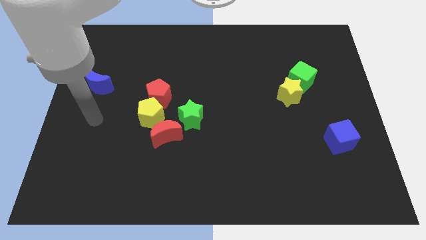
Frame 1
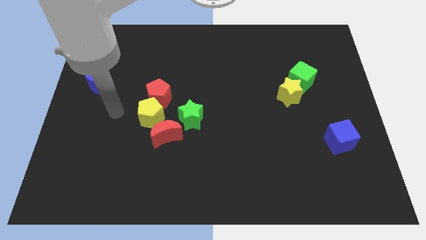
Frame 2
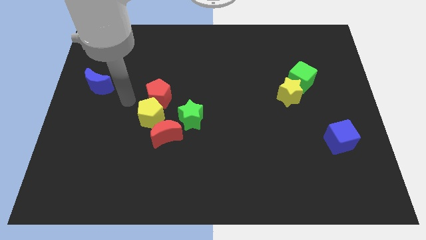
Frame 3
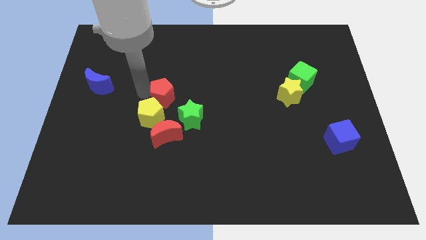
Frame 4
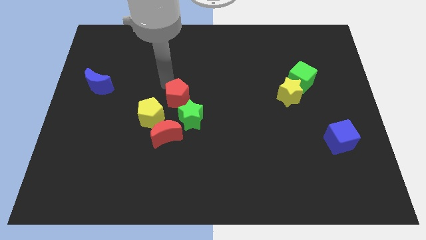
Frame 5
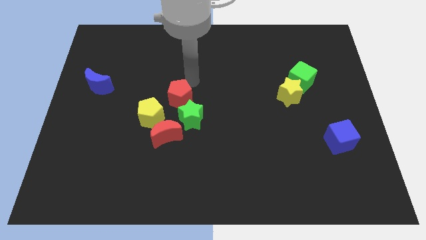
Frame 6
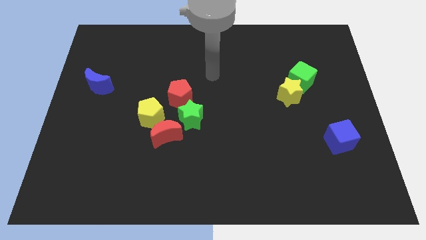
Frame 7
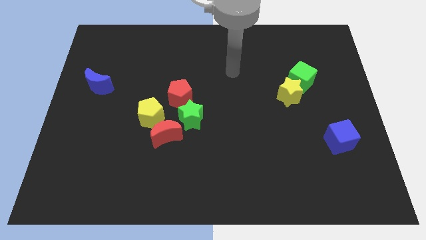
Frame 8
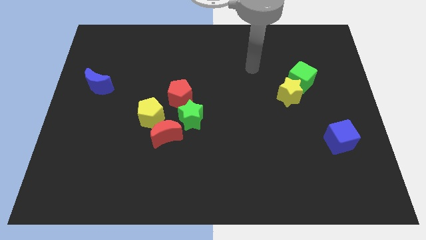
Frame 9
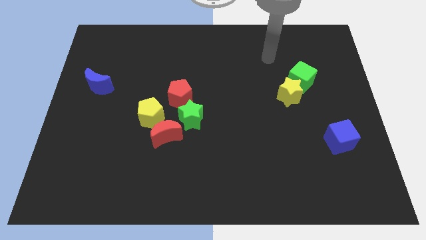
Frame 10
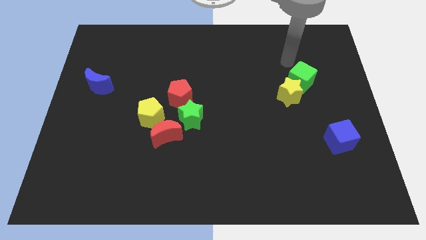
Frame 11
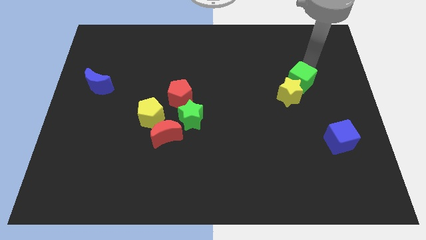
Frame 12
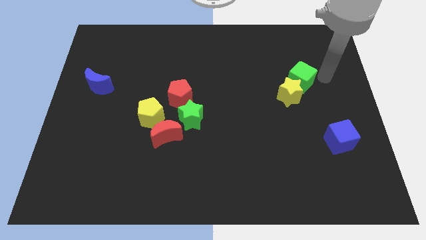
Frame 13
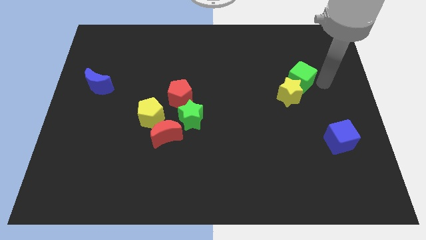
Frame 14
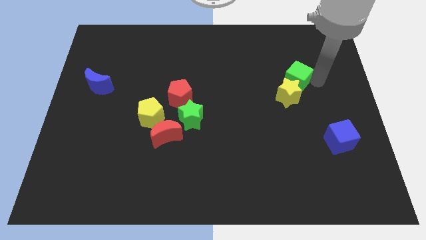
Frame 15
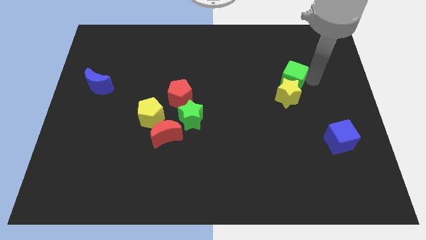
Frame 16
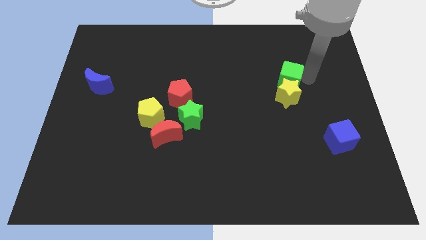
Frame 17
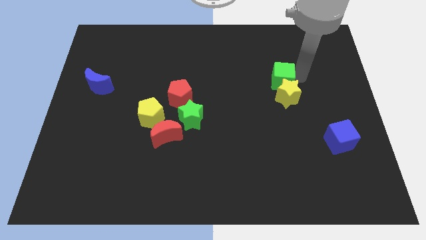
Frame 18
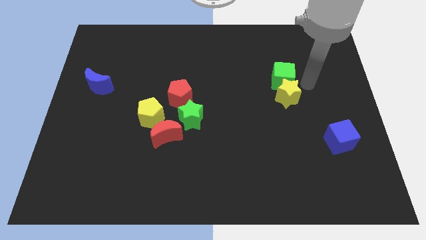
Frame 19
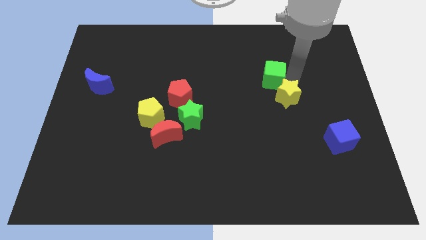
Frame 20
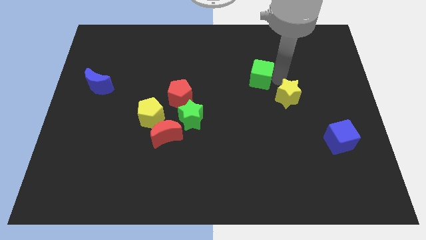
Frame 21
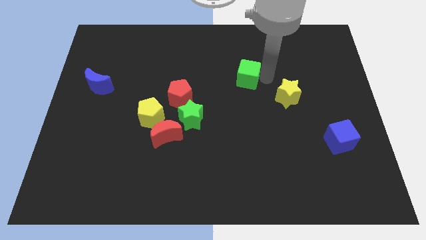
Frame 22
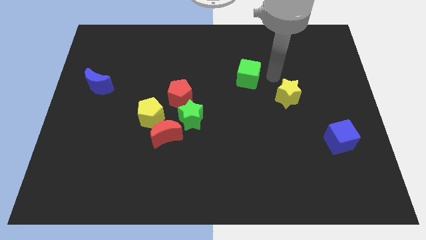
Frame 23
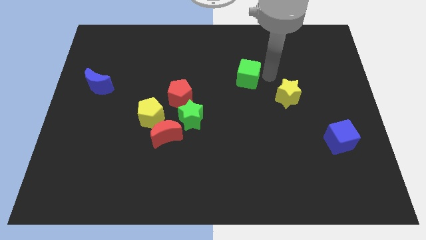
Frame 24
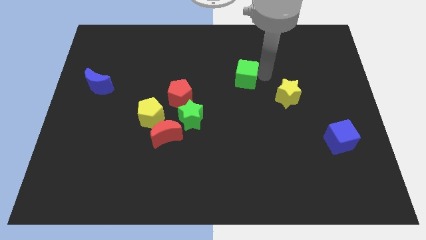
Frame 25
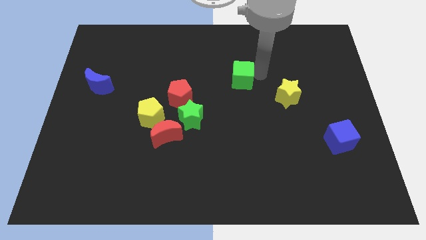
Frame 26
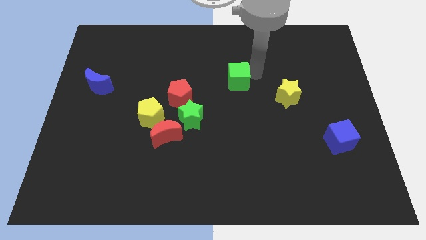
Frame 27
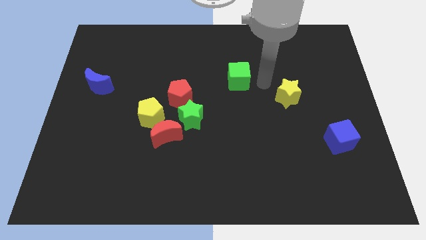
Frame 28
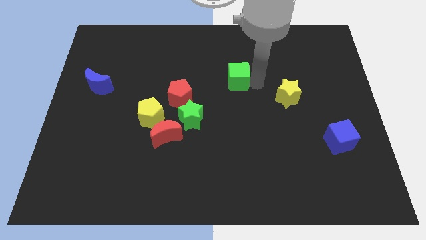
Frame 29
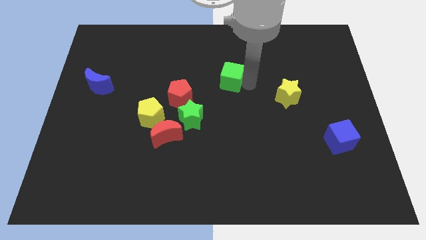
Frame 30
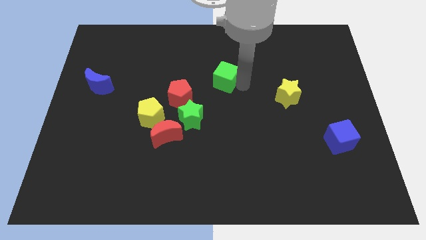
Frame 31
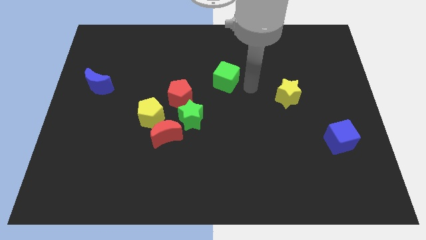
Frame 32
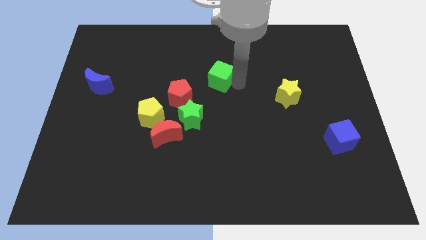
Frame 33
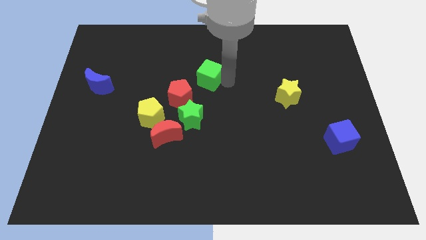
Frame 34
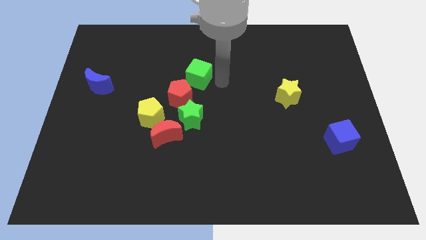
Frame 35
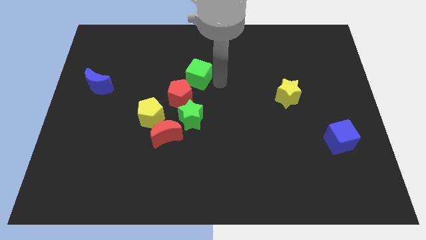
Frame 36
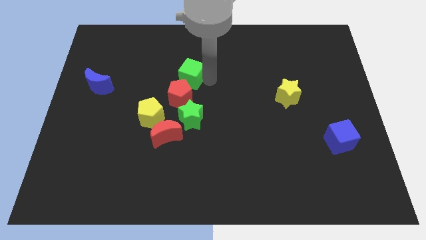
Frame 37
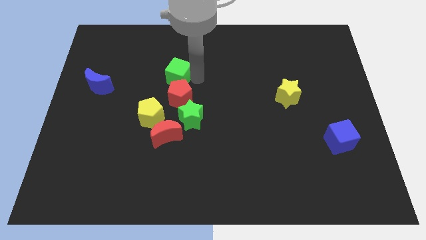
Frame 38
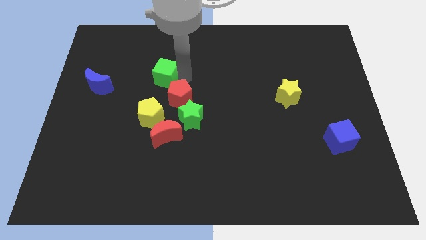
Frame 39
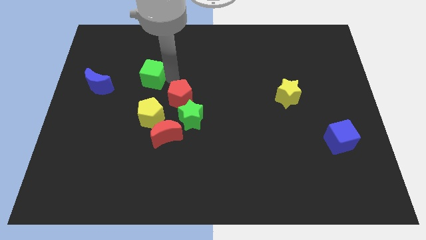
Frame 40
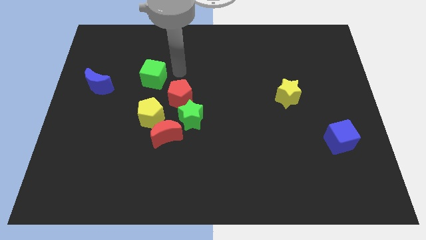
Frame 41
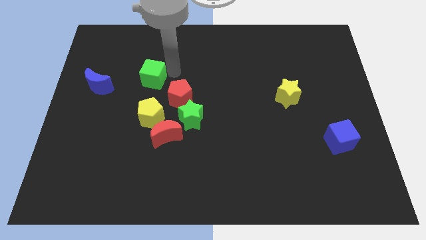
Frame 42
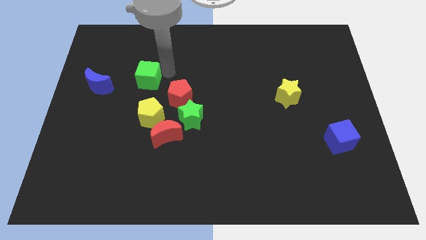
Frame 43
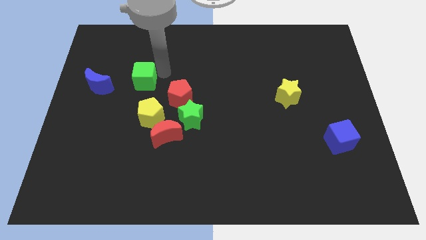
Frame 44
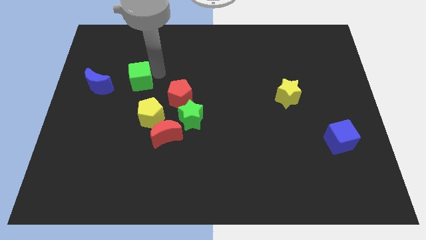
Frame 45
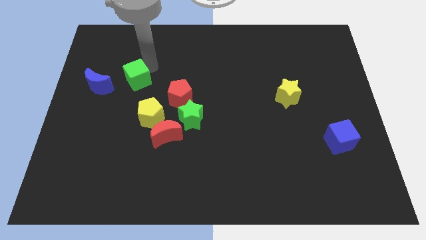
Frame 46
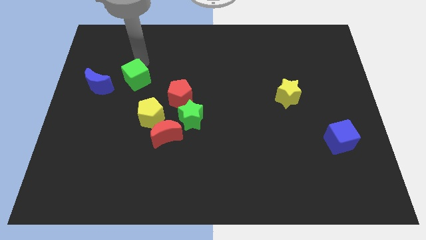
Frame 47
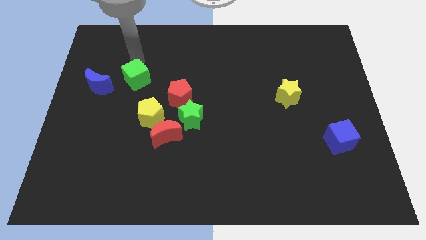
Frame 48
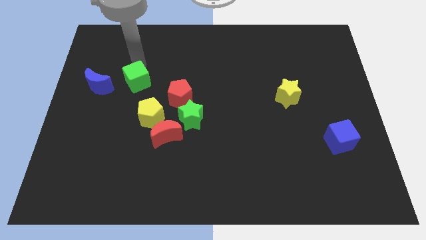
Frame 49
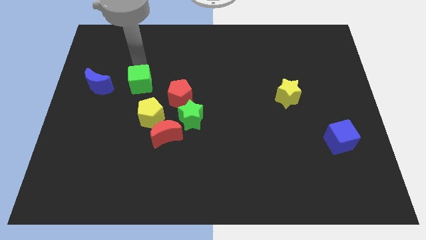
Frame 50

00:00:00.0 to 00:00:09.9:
push the green cube to the left side of the red pentagon

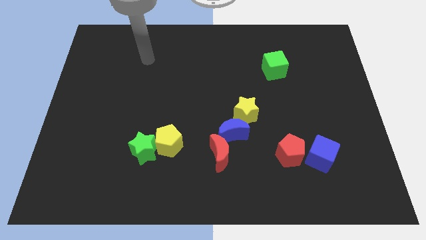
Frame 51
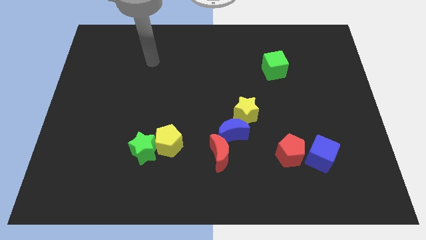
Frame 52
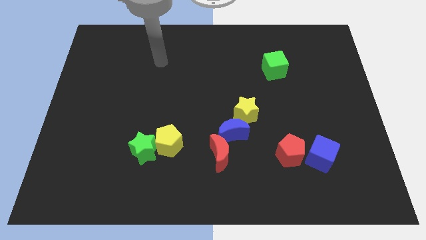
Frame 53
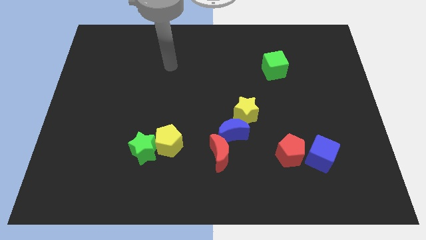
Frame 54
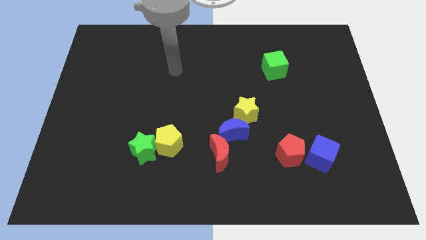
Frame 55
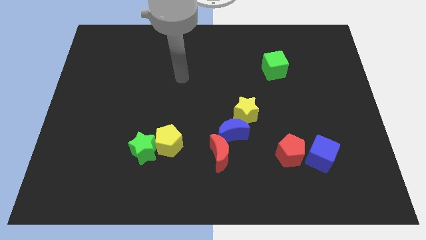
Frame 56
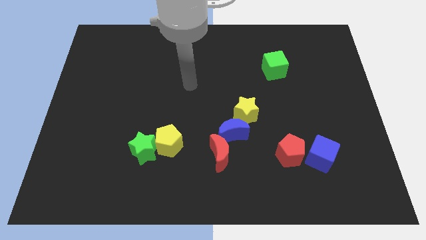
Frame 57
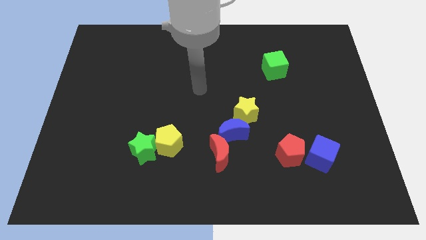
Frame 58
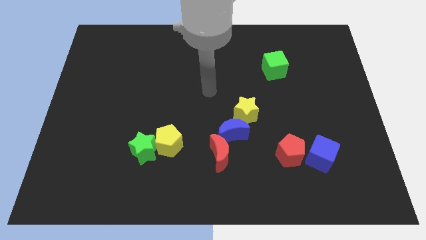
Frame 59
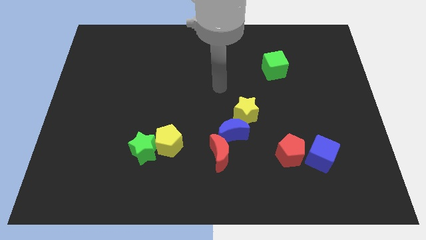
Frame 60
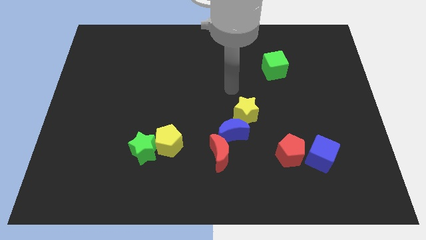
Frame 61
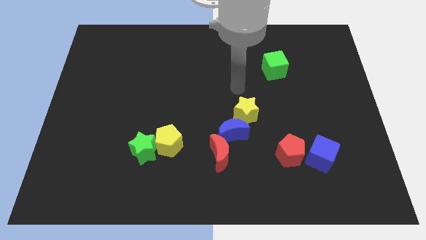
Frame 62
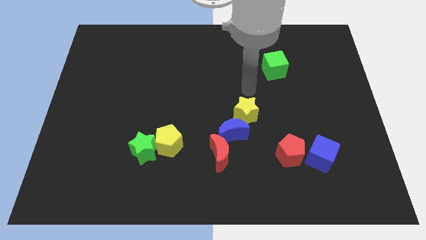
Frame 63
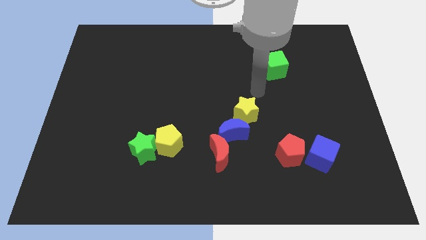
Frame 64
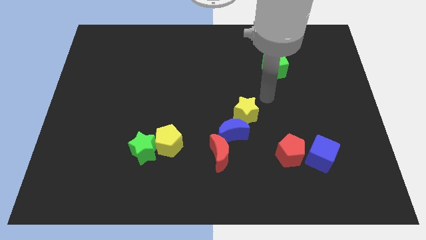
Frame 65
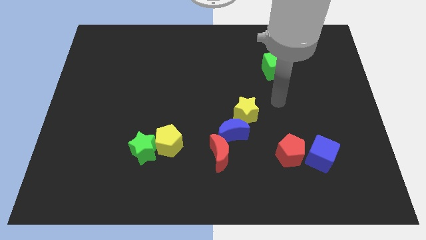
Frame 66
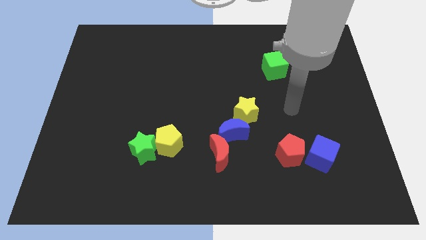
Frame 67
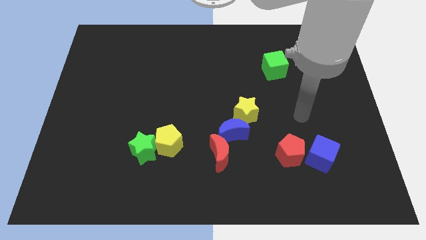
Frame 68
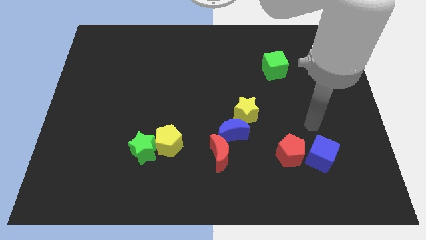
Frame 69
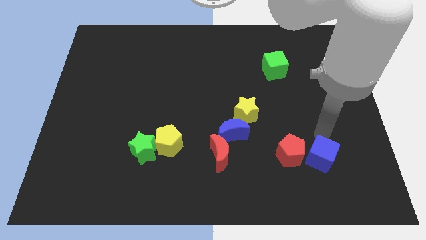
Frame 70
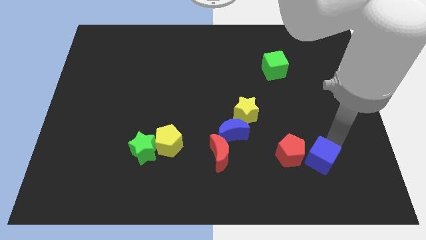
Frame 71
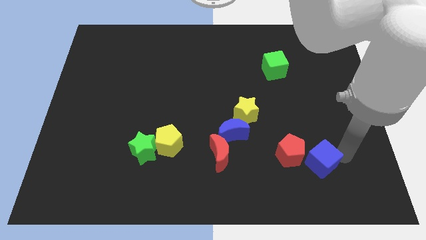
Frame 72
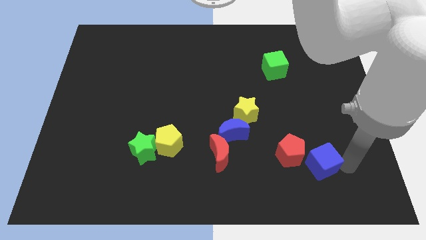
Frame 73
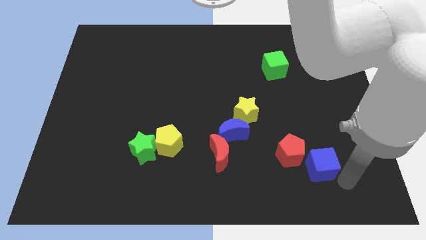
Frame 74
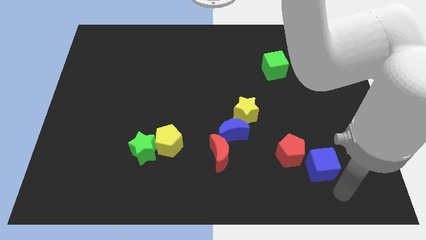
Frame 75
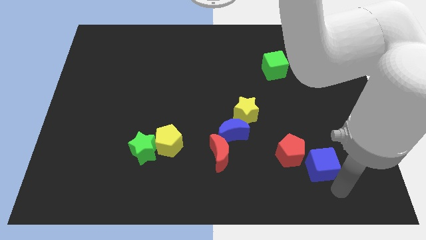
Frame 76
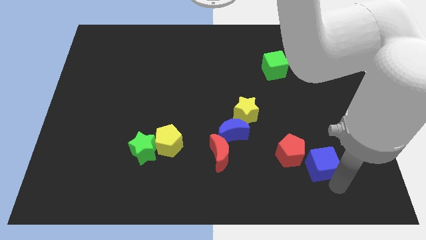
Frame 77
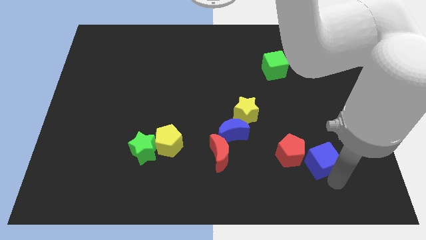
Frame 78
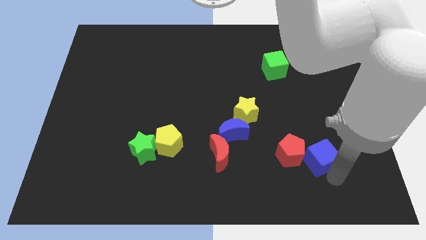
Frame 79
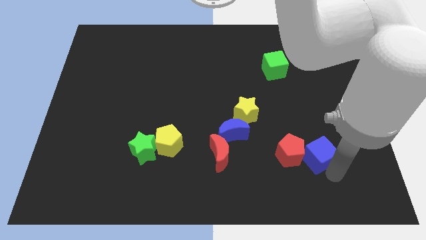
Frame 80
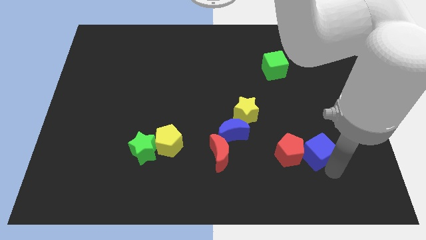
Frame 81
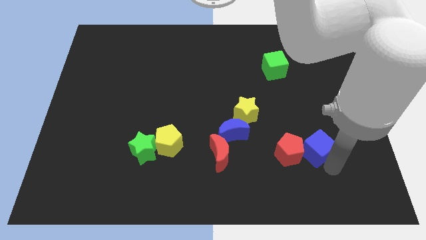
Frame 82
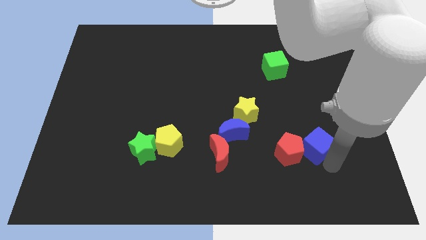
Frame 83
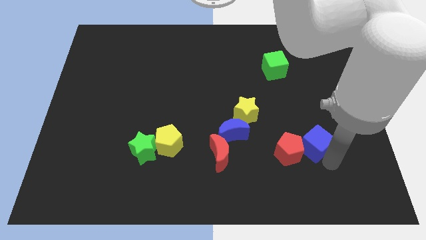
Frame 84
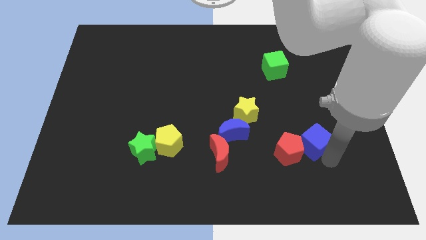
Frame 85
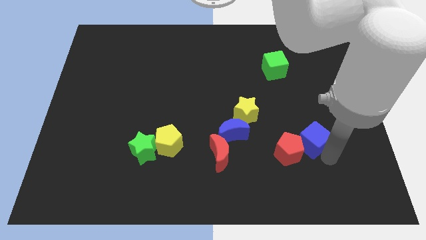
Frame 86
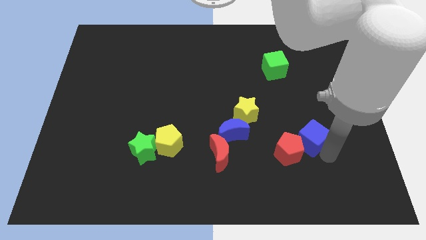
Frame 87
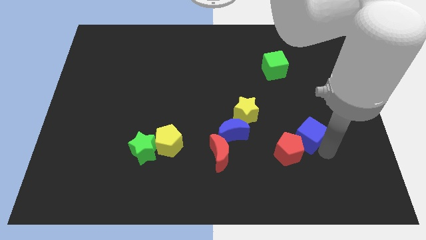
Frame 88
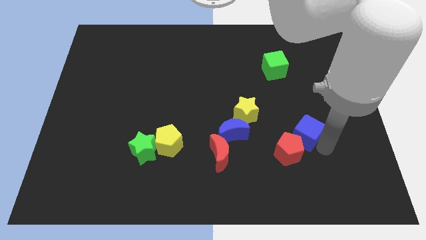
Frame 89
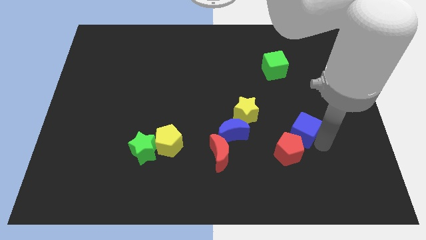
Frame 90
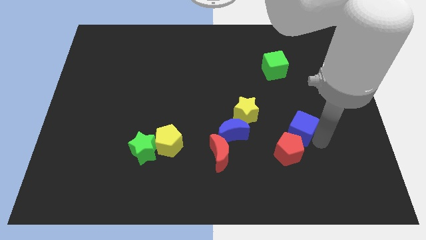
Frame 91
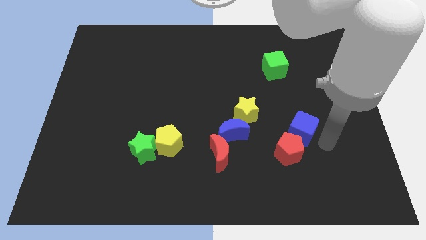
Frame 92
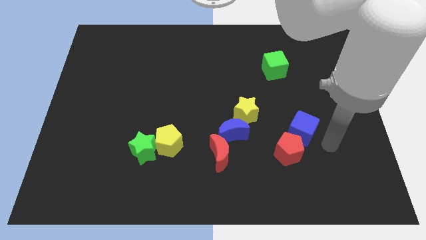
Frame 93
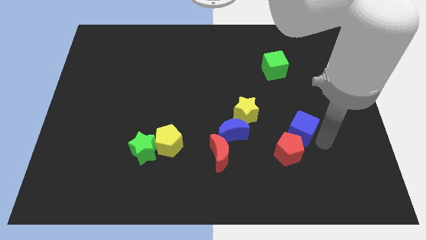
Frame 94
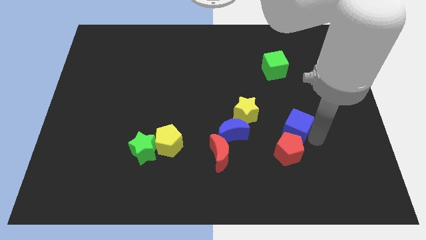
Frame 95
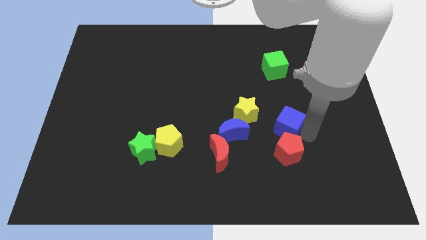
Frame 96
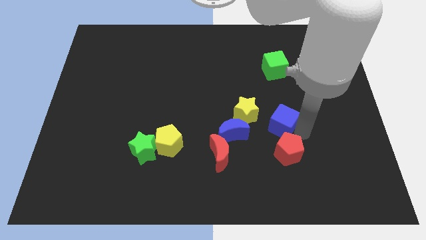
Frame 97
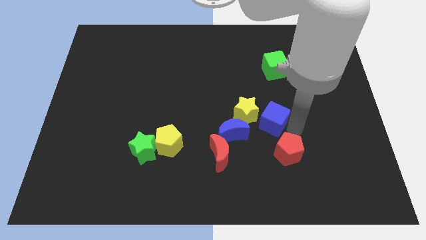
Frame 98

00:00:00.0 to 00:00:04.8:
put the blue cube to the top right of the blue moon
